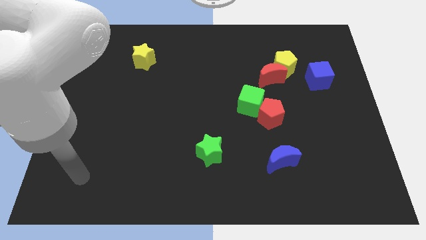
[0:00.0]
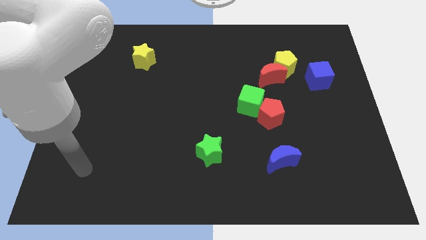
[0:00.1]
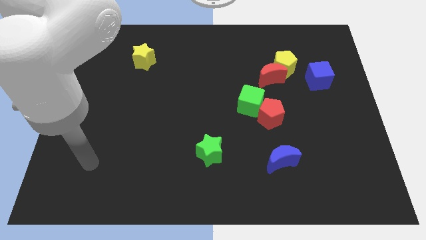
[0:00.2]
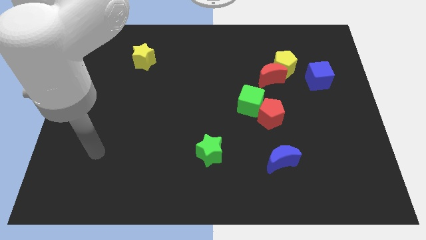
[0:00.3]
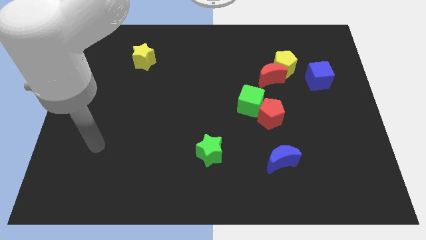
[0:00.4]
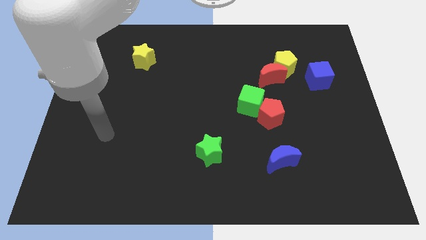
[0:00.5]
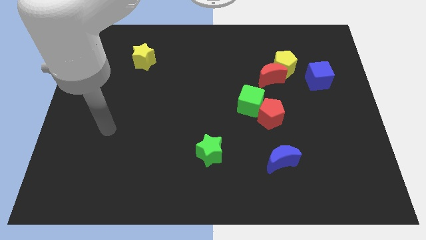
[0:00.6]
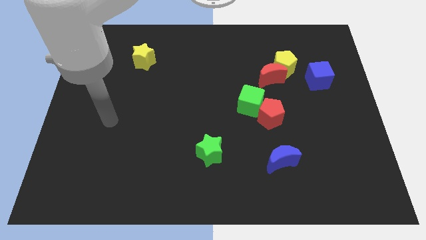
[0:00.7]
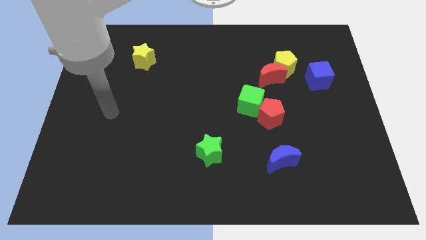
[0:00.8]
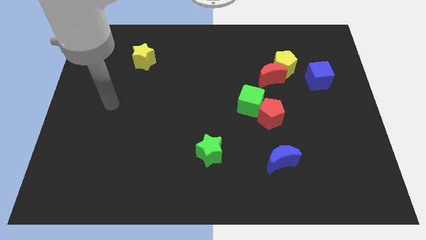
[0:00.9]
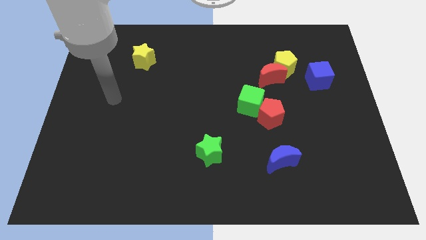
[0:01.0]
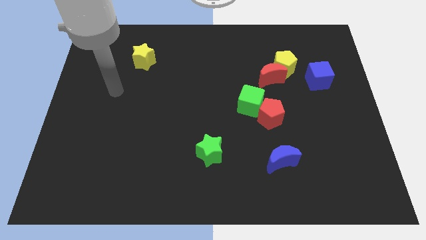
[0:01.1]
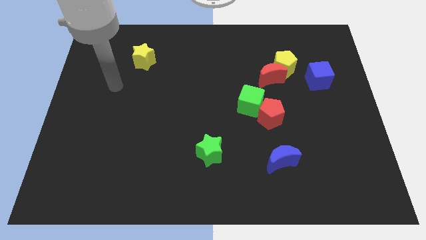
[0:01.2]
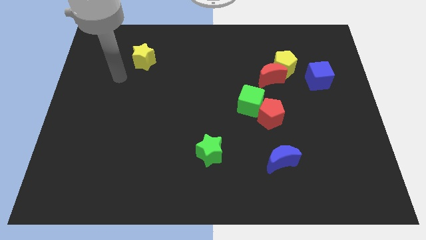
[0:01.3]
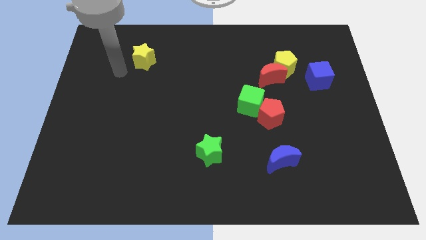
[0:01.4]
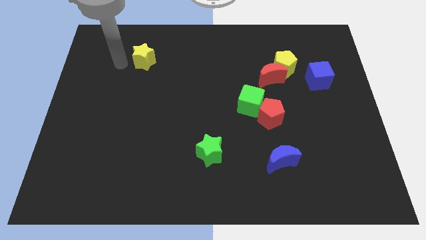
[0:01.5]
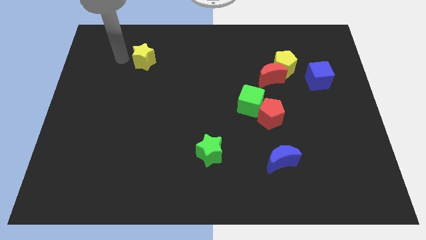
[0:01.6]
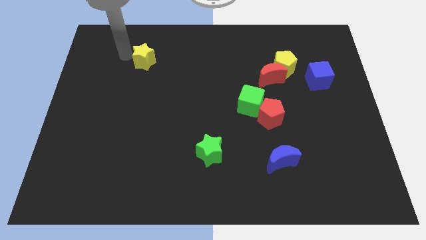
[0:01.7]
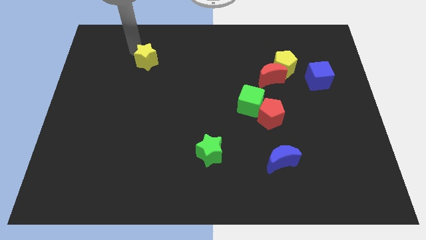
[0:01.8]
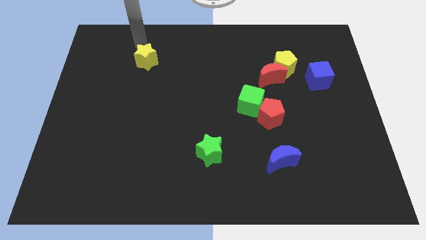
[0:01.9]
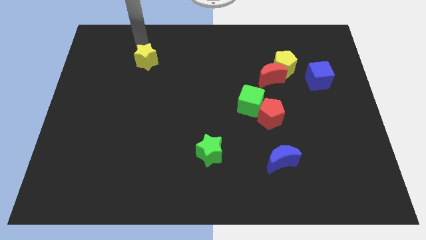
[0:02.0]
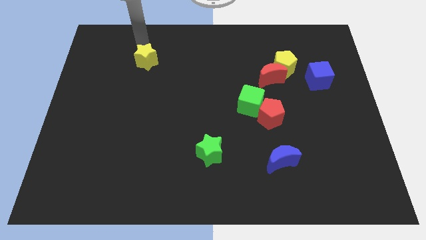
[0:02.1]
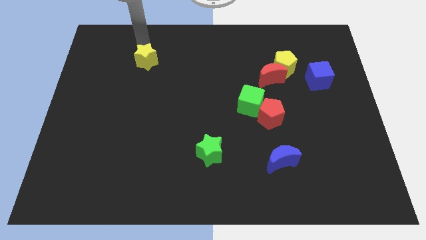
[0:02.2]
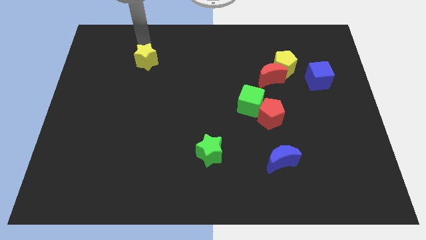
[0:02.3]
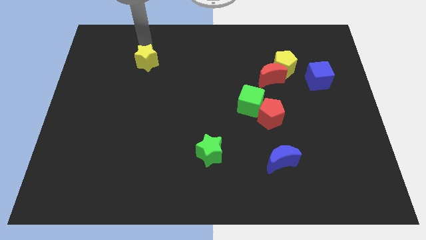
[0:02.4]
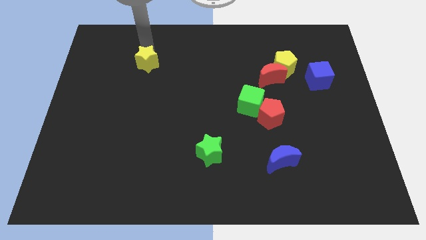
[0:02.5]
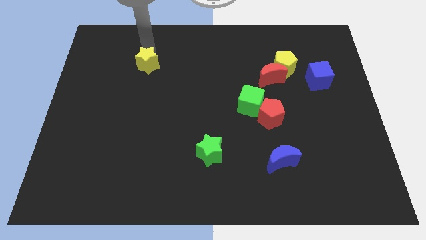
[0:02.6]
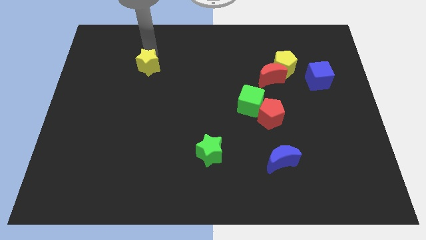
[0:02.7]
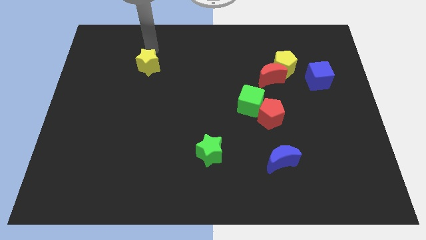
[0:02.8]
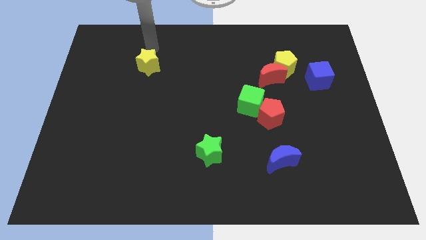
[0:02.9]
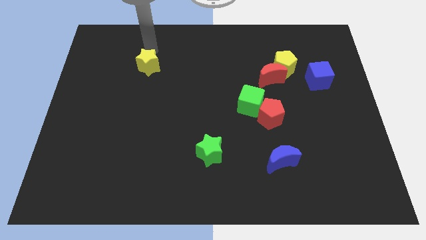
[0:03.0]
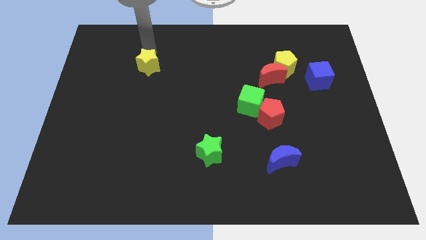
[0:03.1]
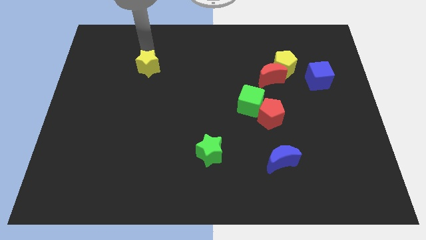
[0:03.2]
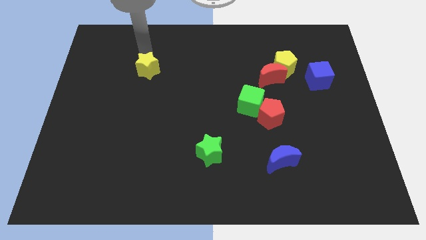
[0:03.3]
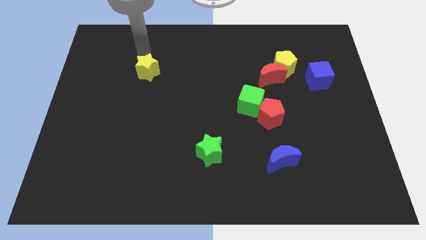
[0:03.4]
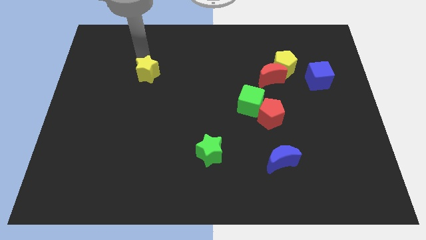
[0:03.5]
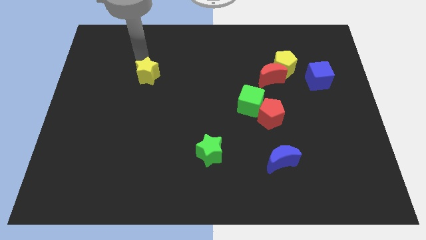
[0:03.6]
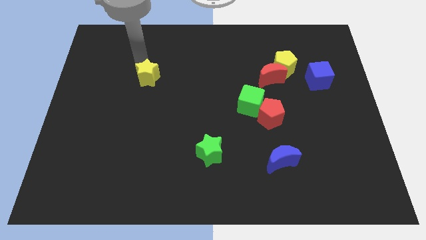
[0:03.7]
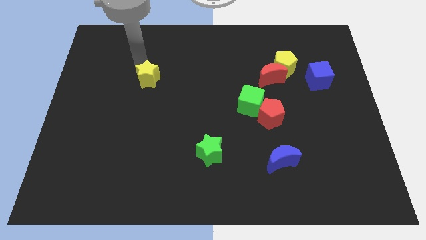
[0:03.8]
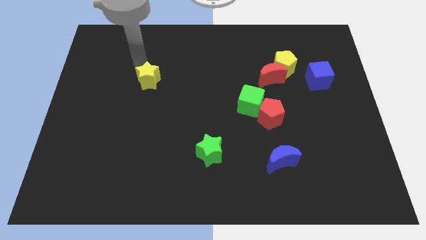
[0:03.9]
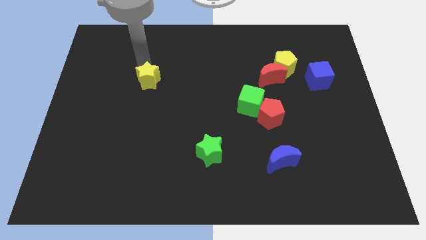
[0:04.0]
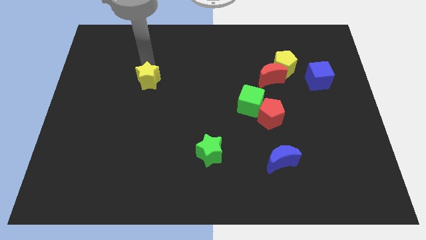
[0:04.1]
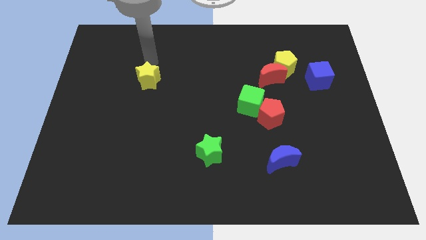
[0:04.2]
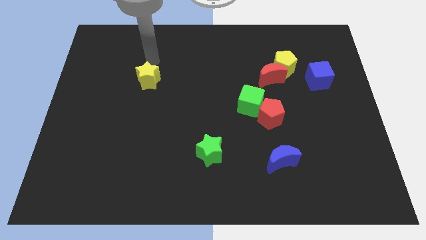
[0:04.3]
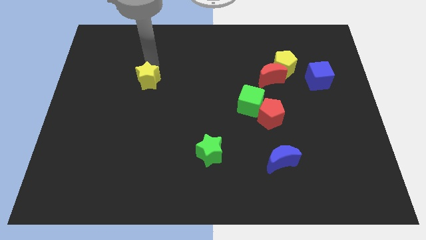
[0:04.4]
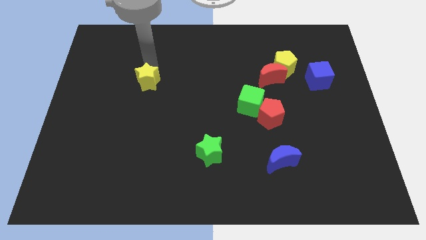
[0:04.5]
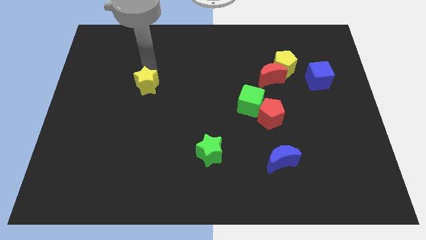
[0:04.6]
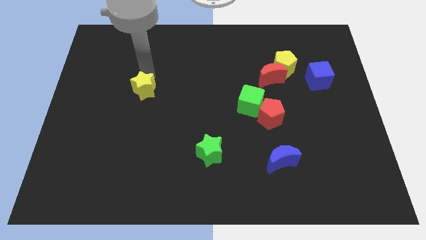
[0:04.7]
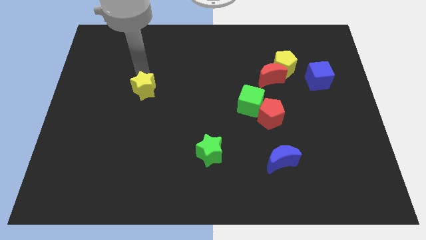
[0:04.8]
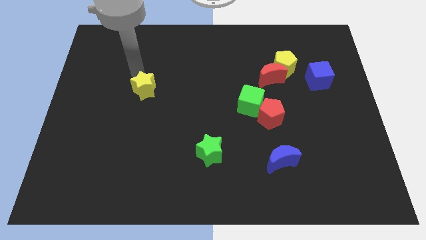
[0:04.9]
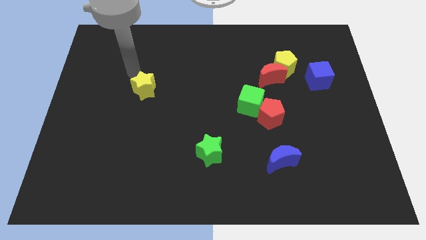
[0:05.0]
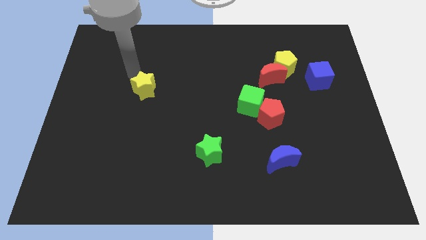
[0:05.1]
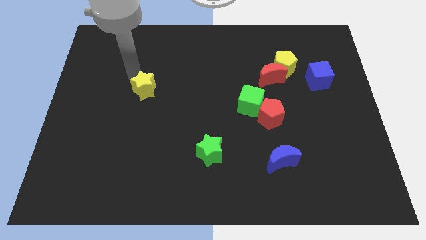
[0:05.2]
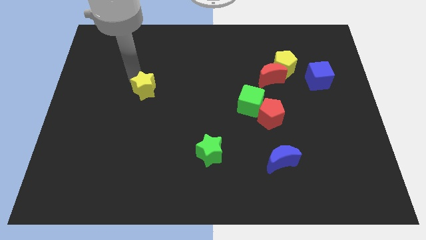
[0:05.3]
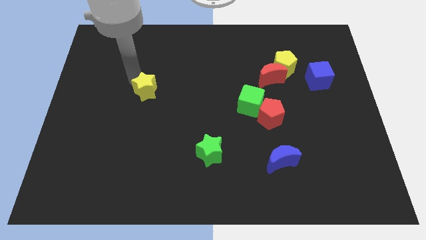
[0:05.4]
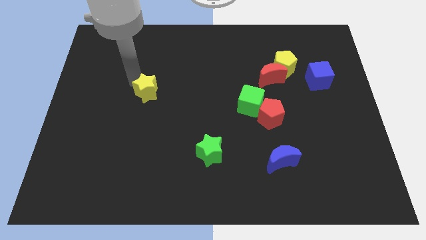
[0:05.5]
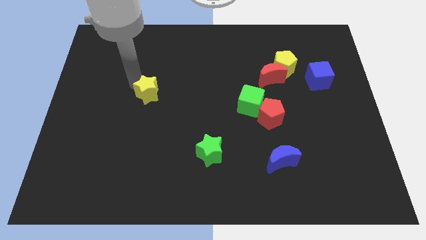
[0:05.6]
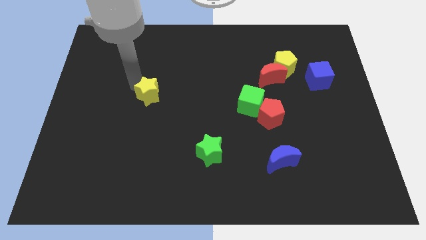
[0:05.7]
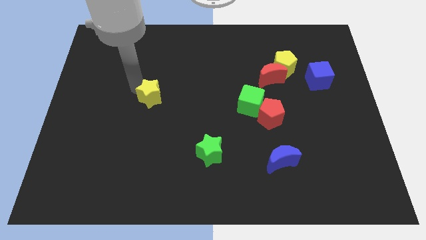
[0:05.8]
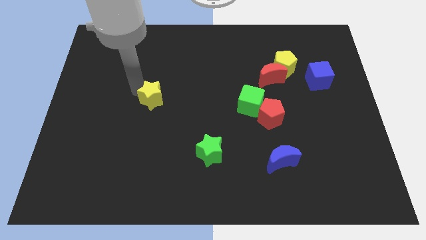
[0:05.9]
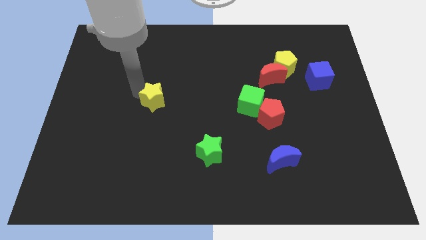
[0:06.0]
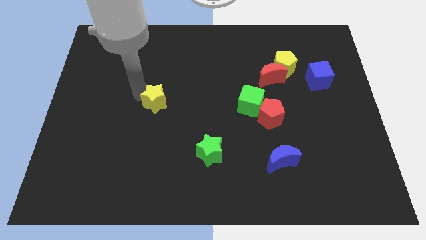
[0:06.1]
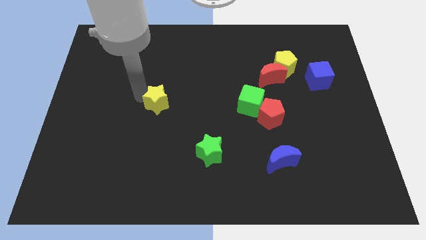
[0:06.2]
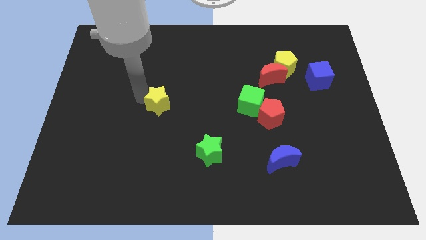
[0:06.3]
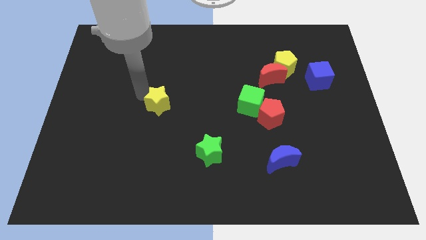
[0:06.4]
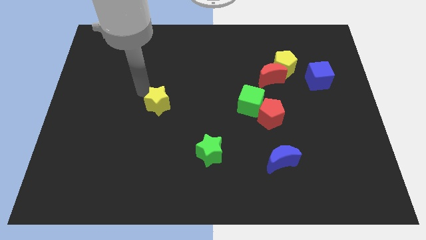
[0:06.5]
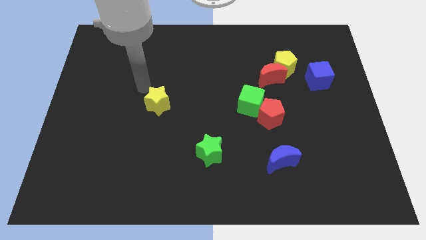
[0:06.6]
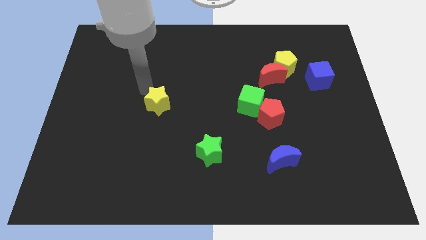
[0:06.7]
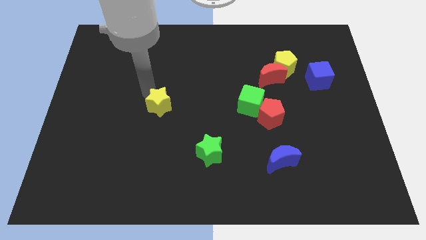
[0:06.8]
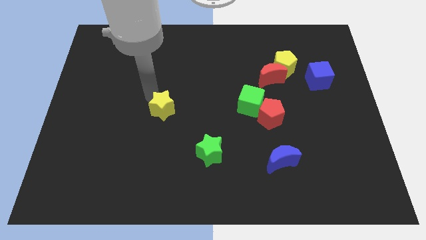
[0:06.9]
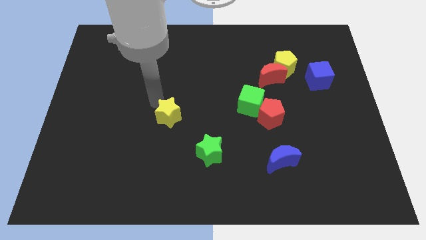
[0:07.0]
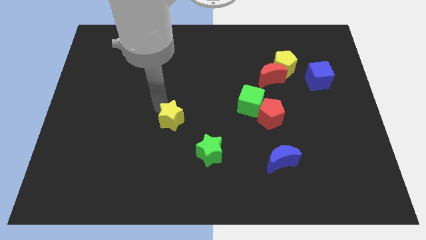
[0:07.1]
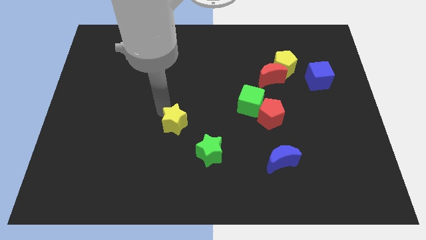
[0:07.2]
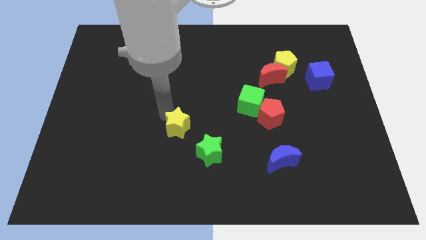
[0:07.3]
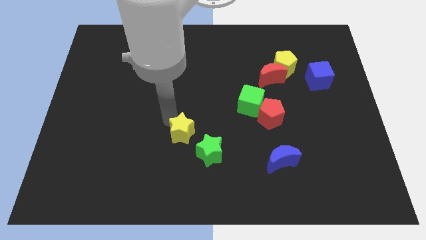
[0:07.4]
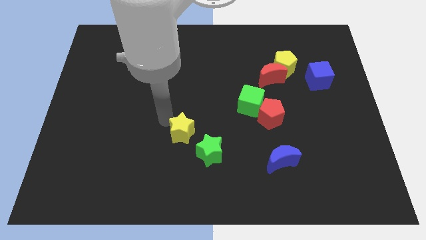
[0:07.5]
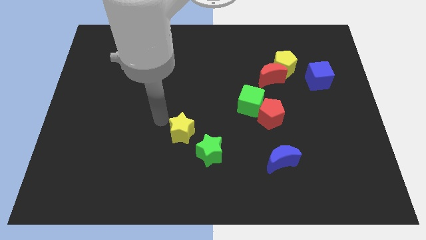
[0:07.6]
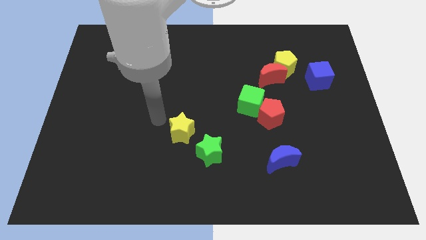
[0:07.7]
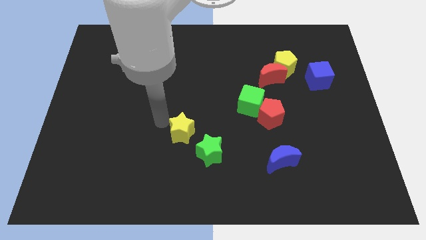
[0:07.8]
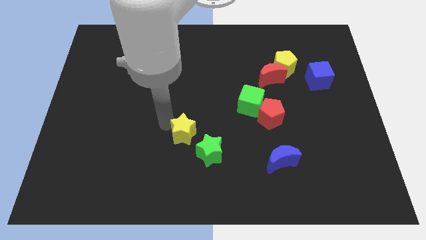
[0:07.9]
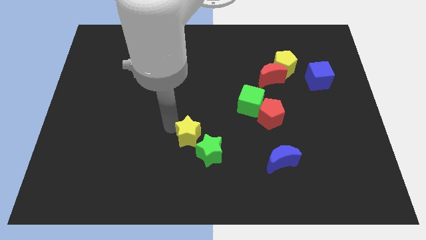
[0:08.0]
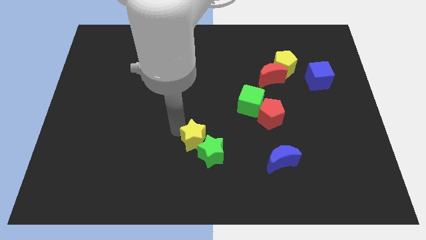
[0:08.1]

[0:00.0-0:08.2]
move the yellow star towards the green star
